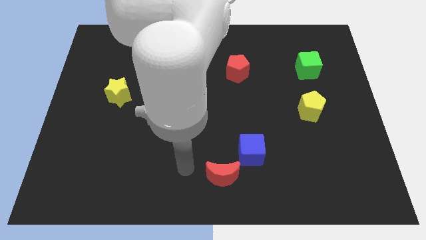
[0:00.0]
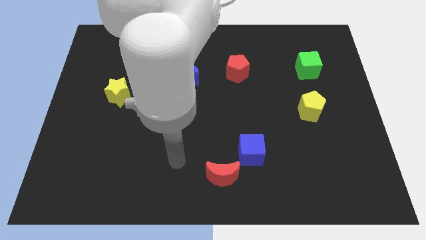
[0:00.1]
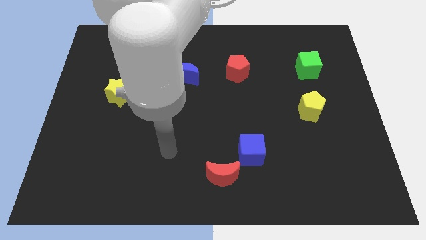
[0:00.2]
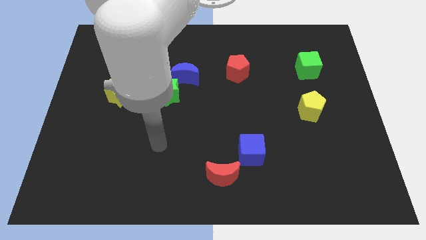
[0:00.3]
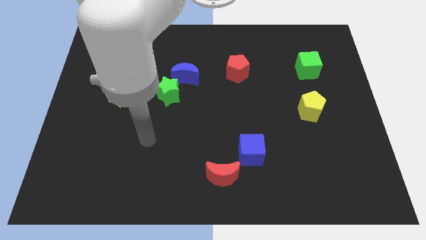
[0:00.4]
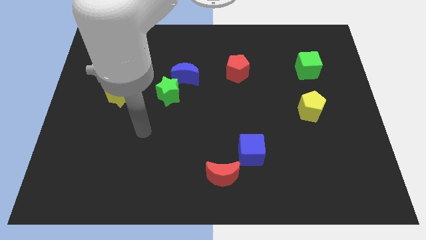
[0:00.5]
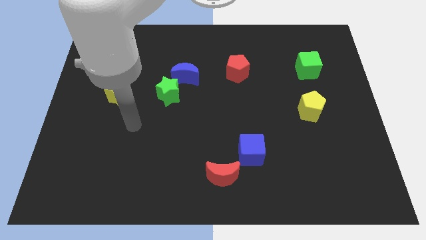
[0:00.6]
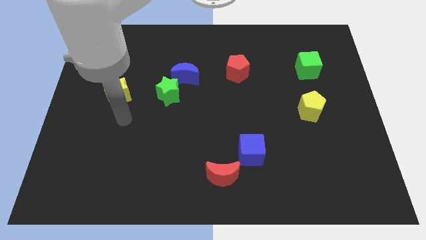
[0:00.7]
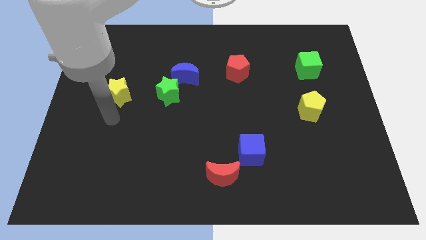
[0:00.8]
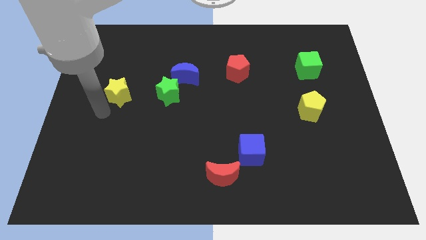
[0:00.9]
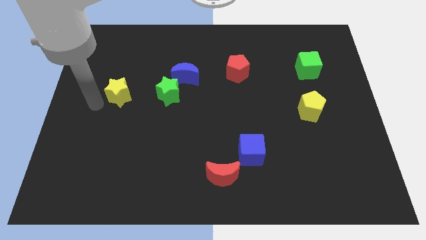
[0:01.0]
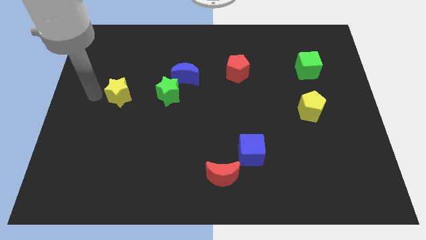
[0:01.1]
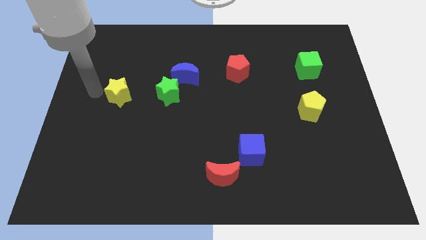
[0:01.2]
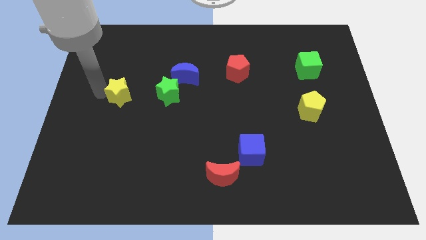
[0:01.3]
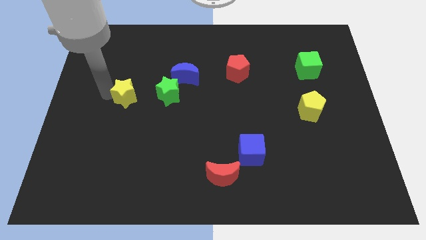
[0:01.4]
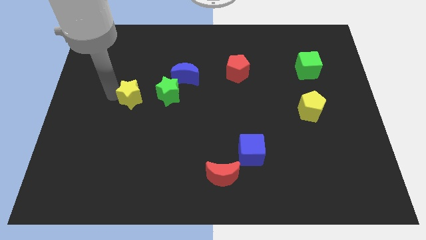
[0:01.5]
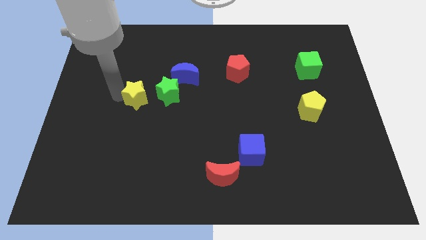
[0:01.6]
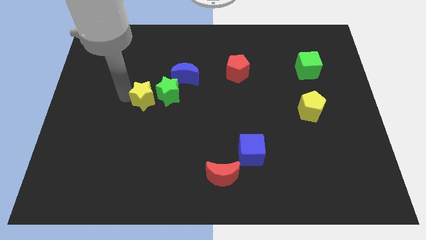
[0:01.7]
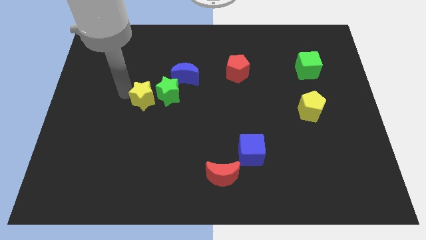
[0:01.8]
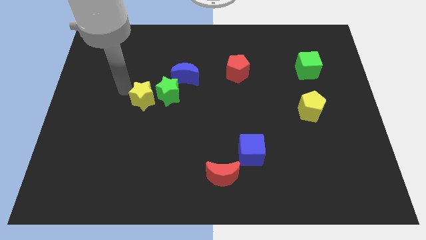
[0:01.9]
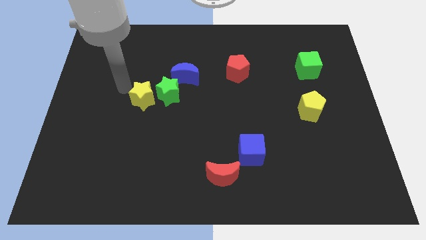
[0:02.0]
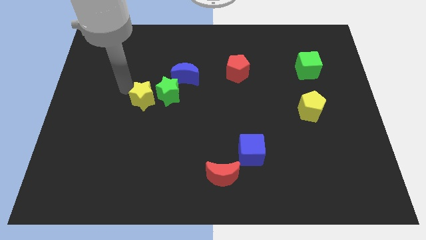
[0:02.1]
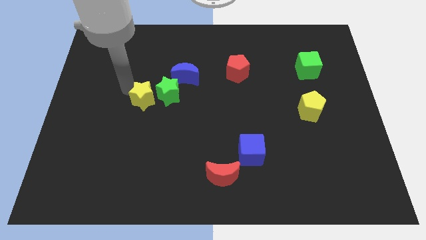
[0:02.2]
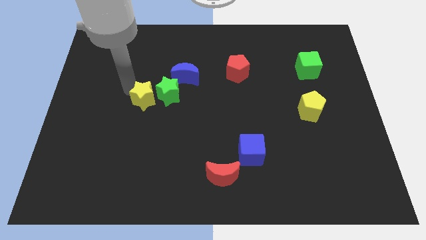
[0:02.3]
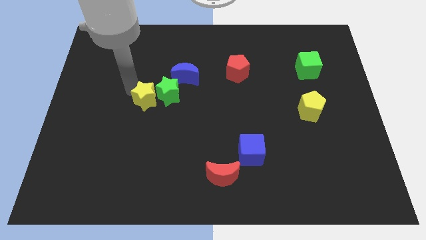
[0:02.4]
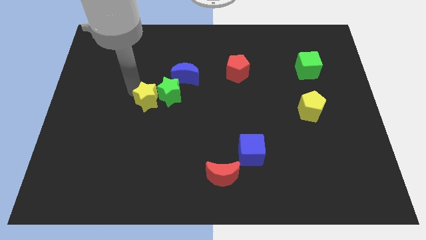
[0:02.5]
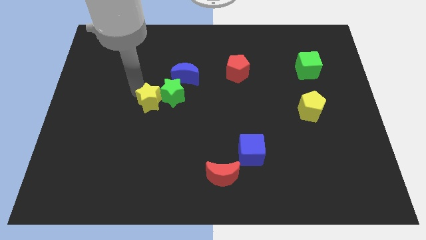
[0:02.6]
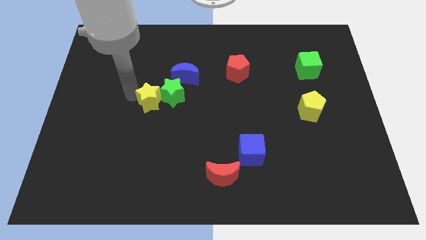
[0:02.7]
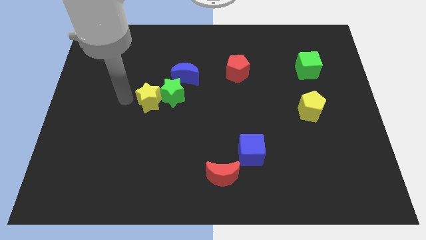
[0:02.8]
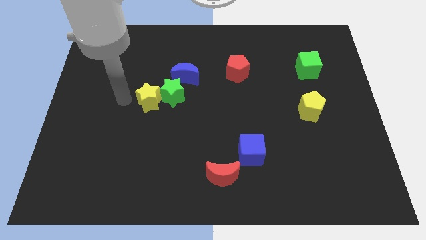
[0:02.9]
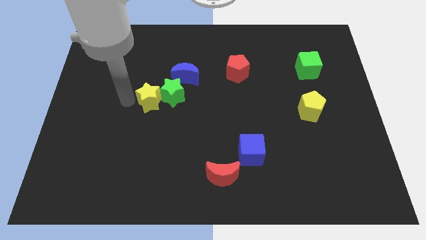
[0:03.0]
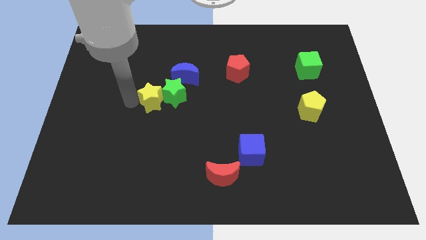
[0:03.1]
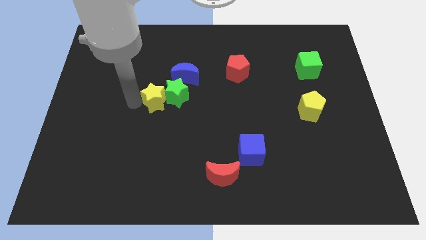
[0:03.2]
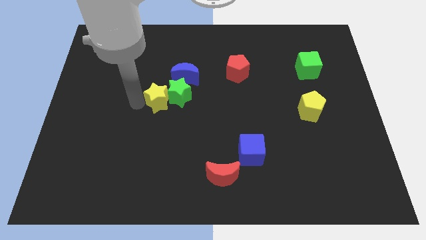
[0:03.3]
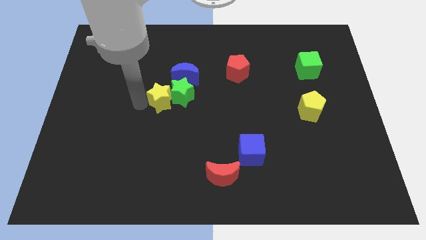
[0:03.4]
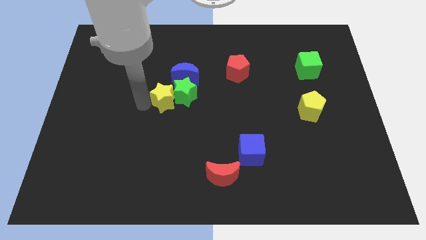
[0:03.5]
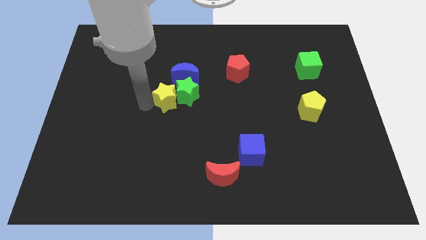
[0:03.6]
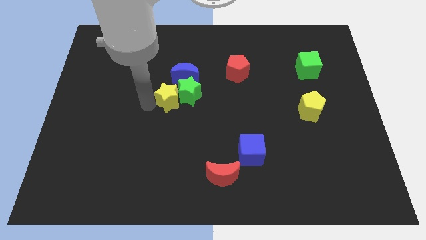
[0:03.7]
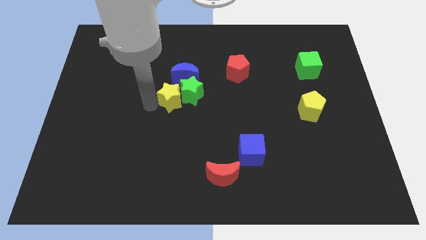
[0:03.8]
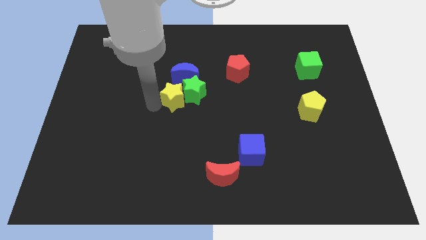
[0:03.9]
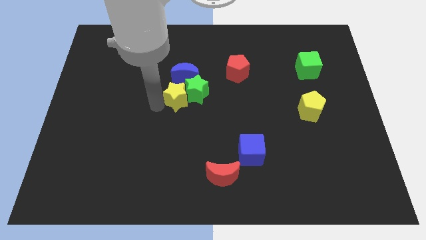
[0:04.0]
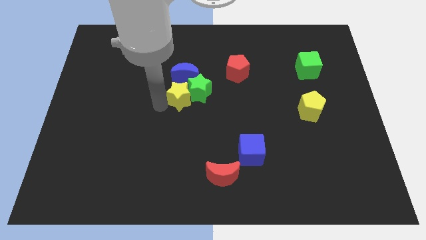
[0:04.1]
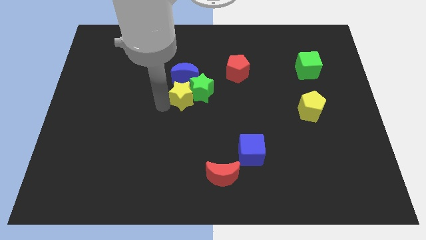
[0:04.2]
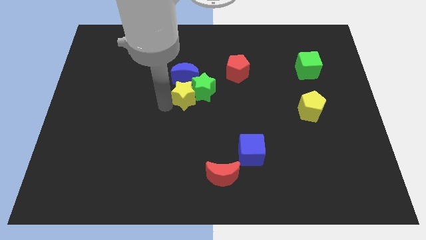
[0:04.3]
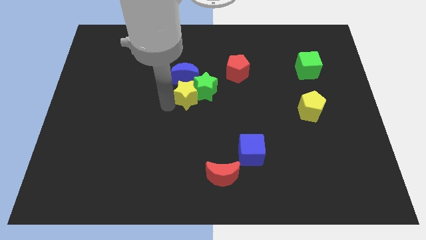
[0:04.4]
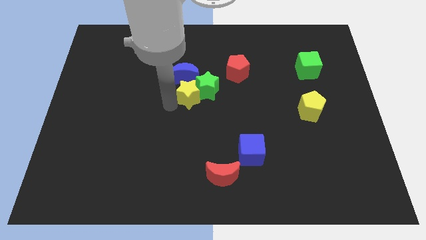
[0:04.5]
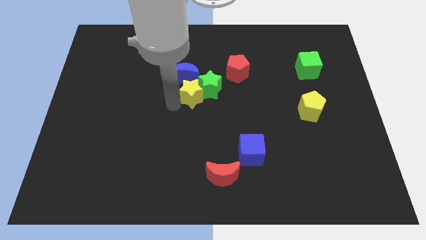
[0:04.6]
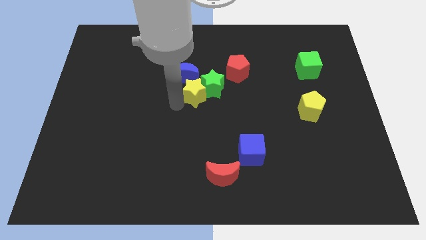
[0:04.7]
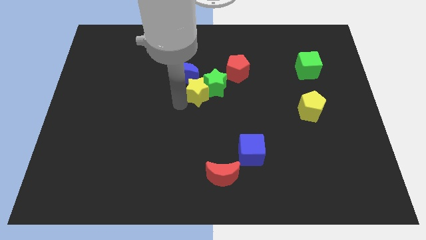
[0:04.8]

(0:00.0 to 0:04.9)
push the yellow star to the bottom left side of the red pentagon

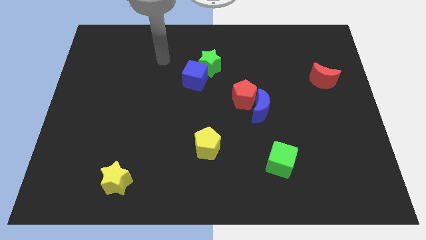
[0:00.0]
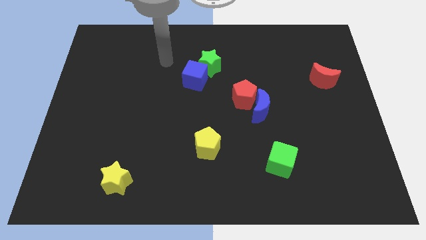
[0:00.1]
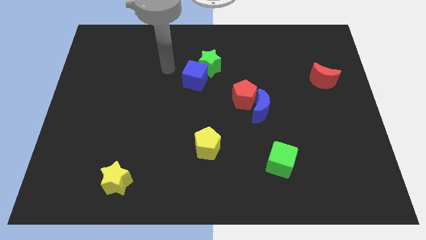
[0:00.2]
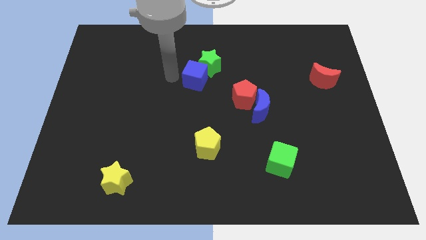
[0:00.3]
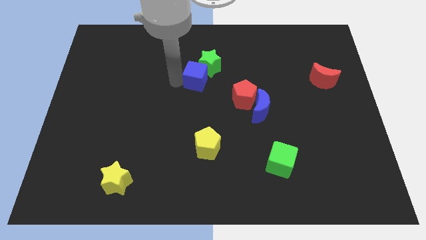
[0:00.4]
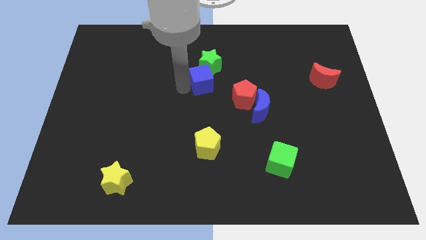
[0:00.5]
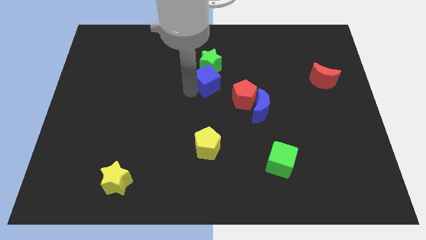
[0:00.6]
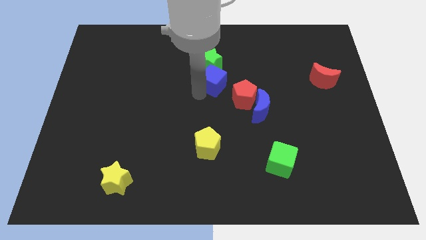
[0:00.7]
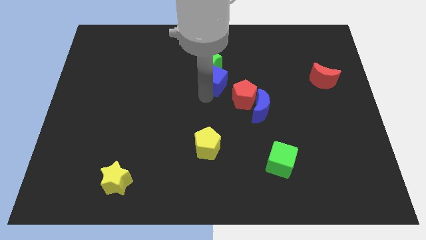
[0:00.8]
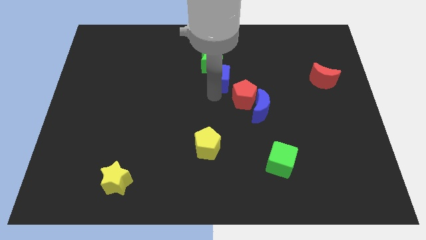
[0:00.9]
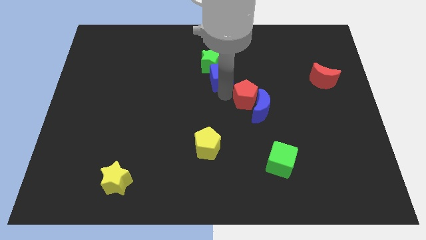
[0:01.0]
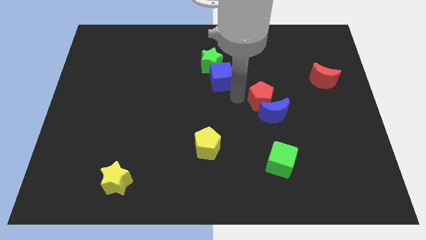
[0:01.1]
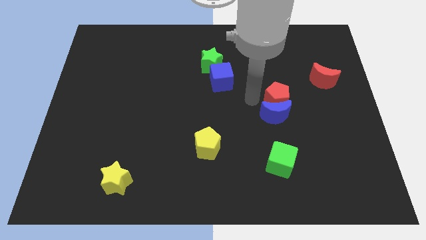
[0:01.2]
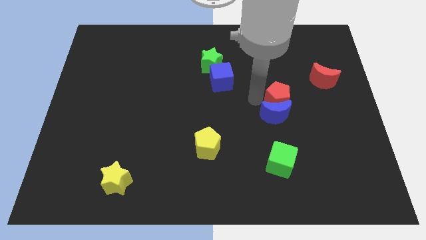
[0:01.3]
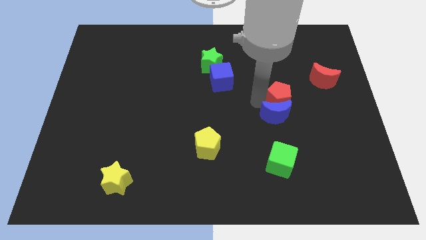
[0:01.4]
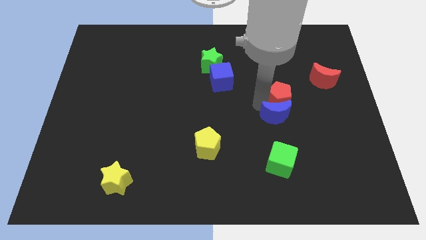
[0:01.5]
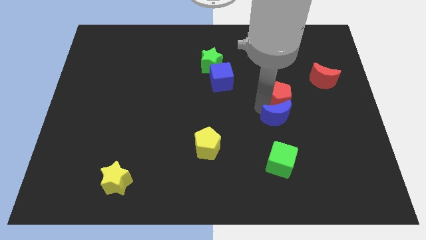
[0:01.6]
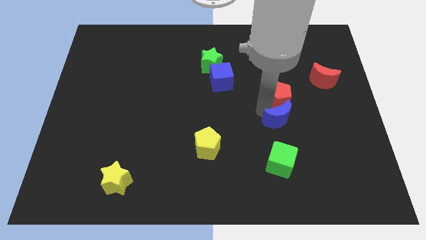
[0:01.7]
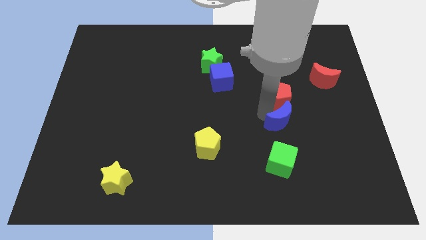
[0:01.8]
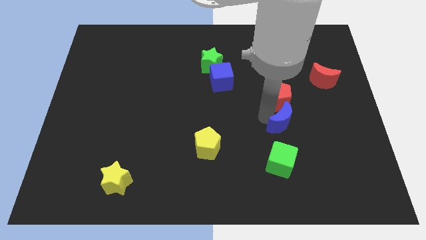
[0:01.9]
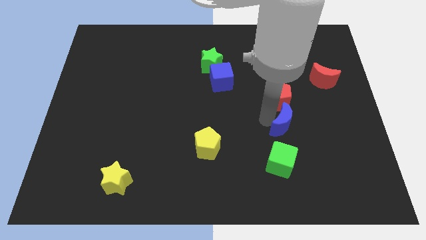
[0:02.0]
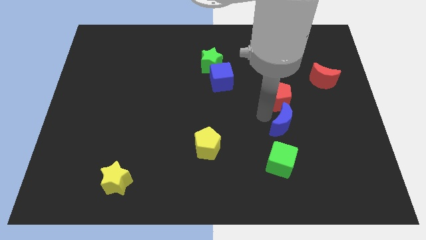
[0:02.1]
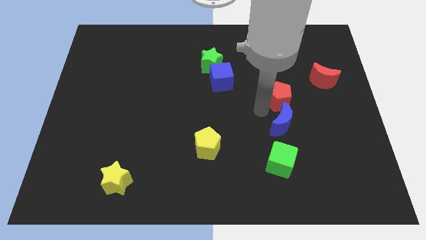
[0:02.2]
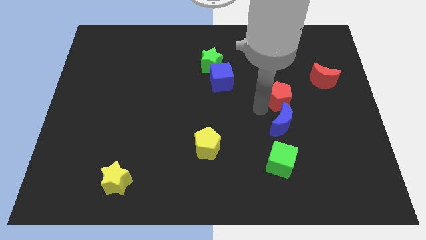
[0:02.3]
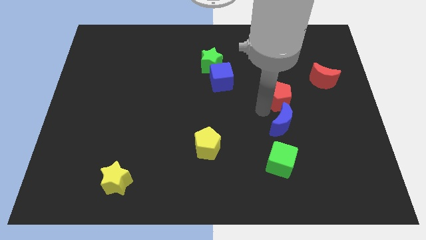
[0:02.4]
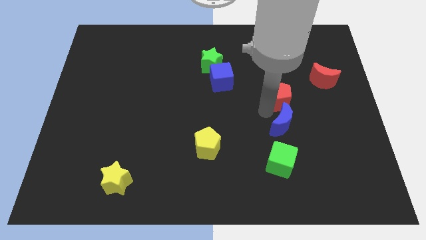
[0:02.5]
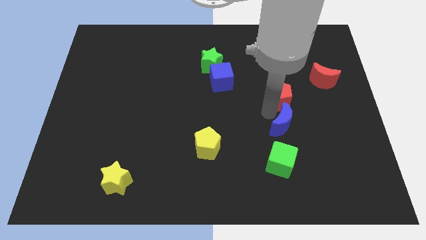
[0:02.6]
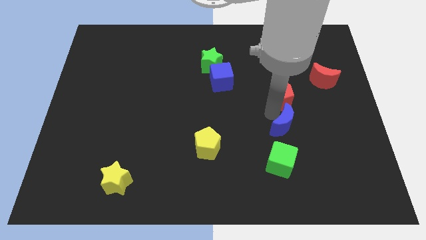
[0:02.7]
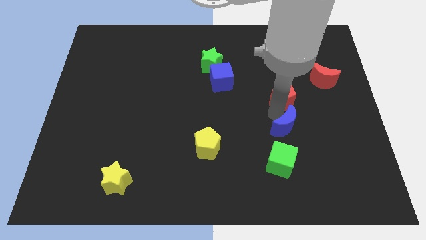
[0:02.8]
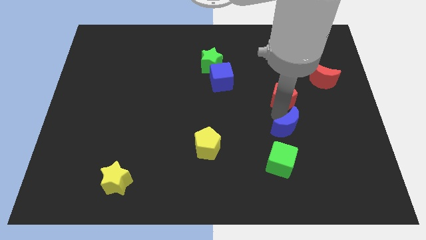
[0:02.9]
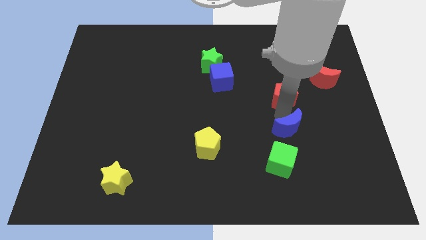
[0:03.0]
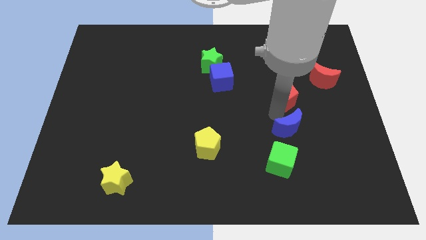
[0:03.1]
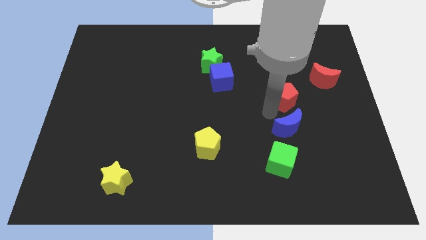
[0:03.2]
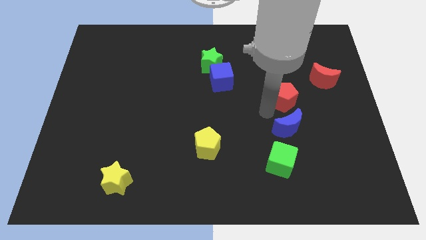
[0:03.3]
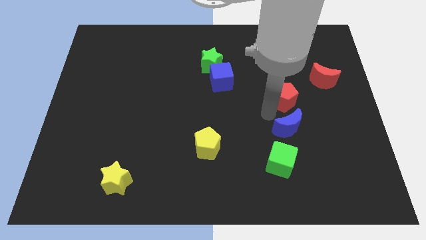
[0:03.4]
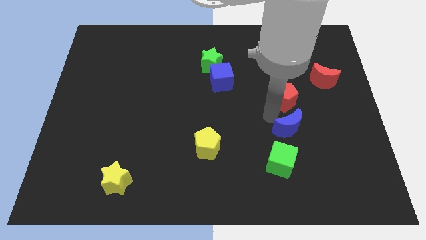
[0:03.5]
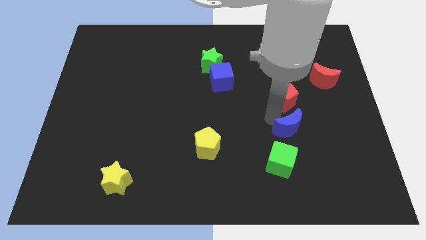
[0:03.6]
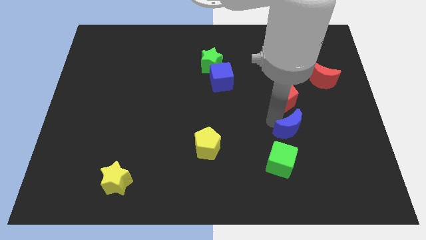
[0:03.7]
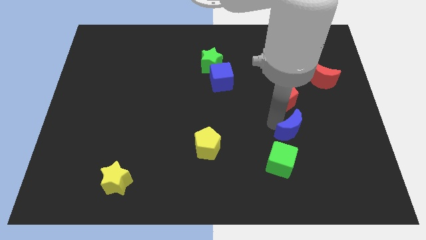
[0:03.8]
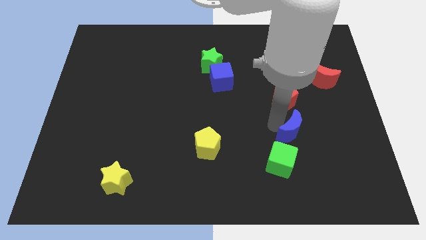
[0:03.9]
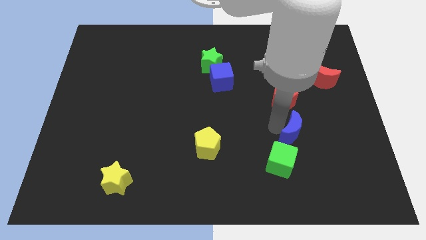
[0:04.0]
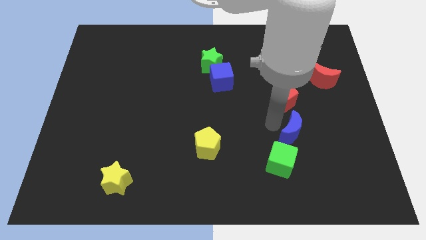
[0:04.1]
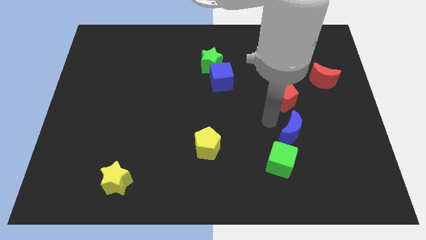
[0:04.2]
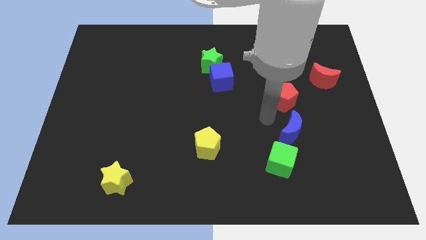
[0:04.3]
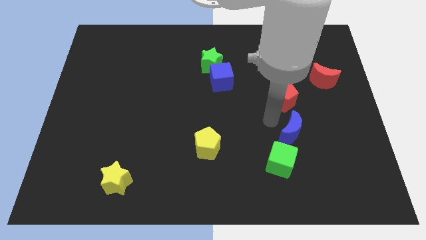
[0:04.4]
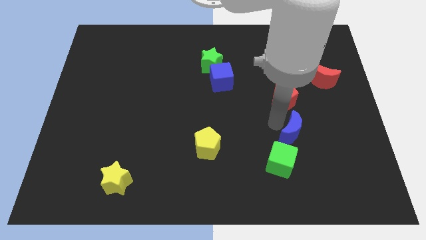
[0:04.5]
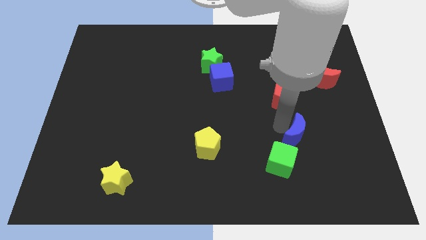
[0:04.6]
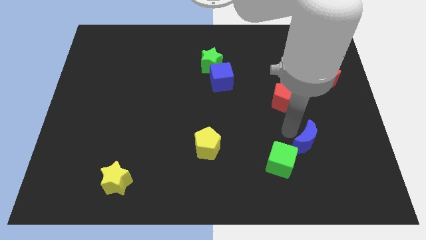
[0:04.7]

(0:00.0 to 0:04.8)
move the blue moon just right of the green cube
